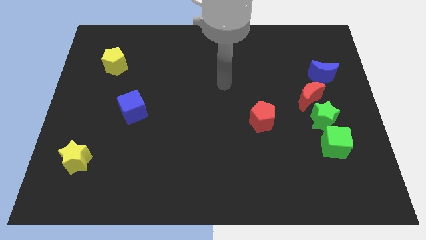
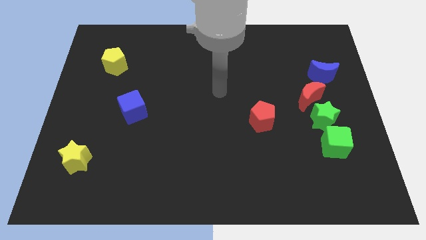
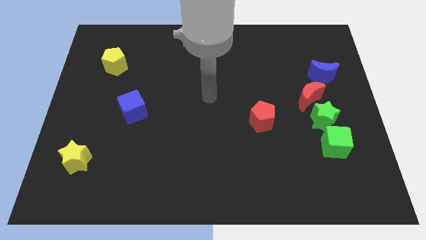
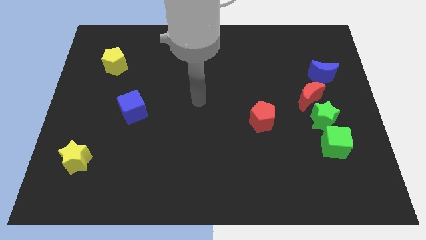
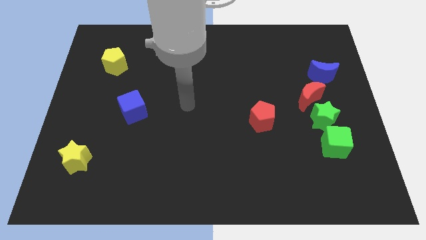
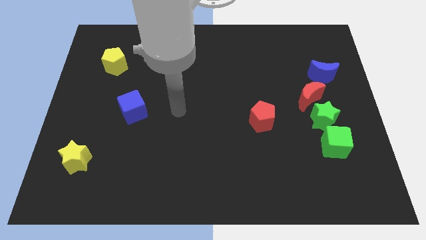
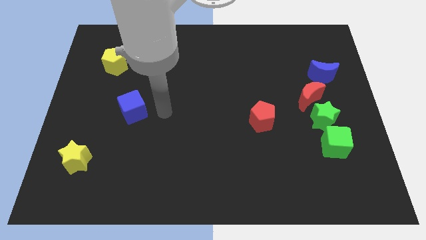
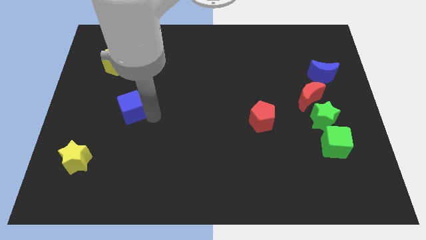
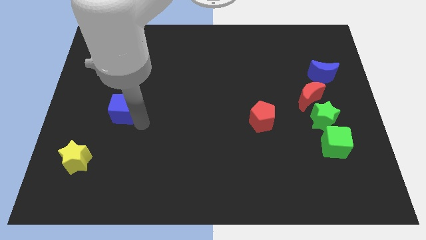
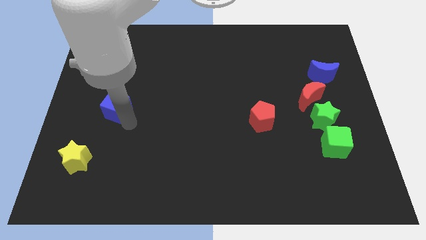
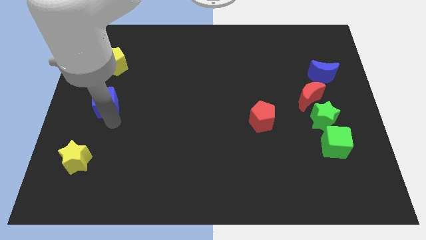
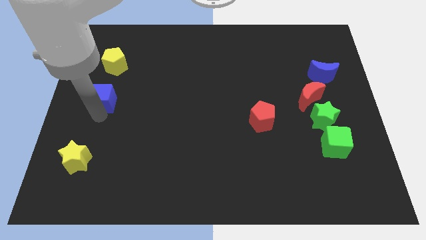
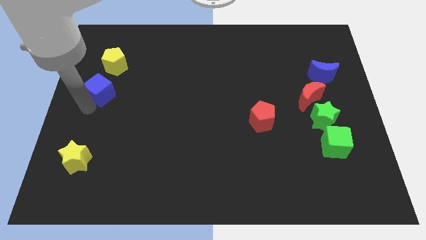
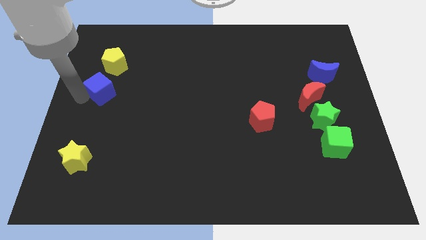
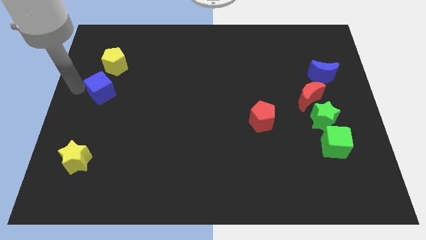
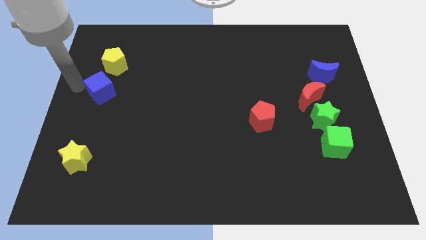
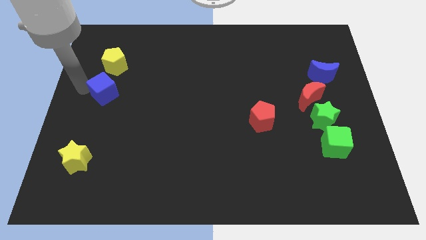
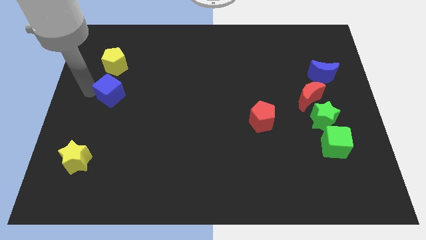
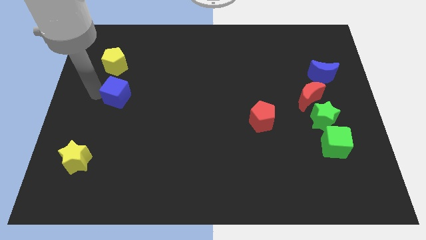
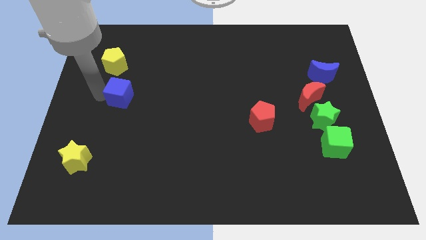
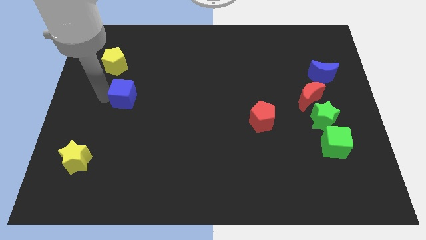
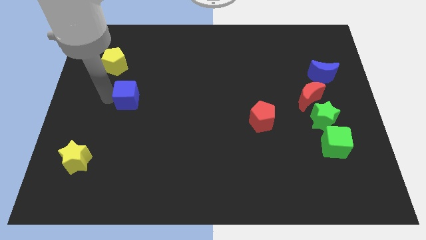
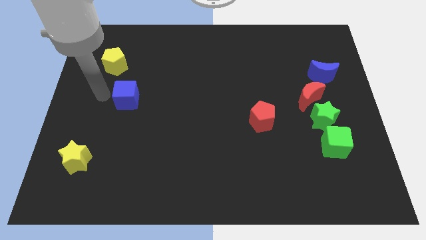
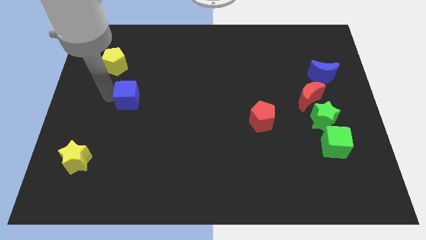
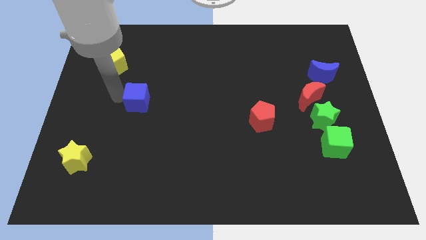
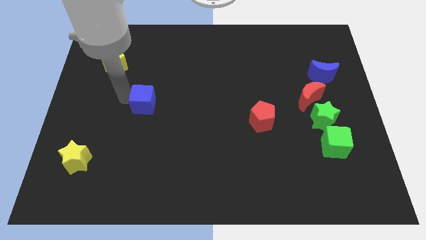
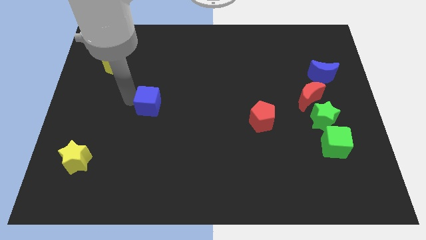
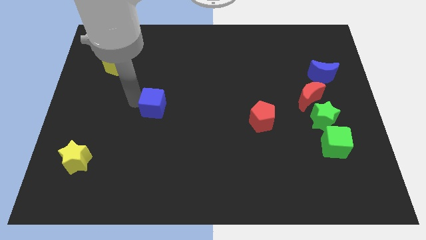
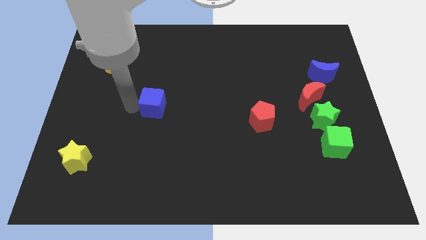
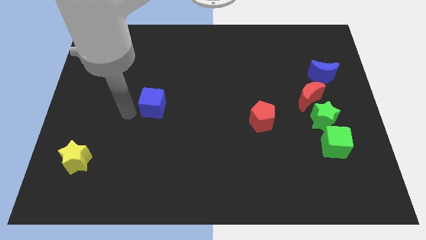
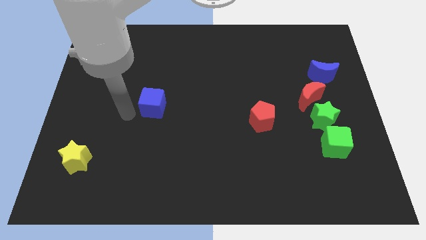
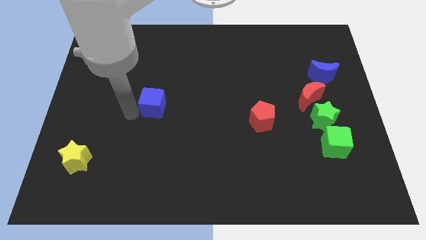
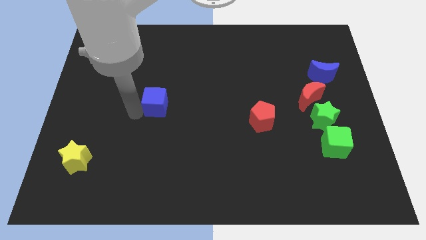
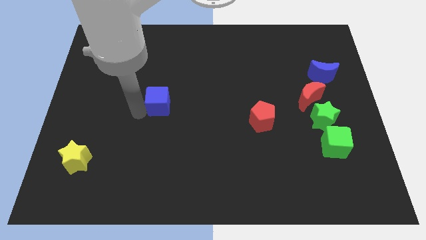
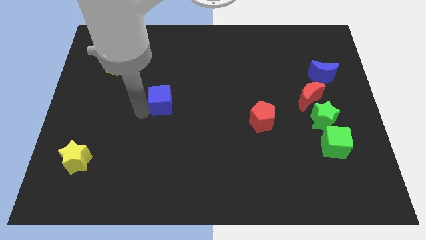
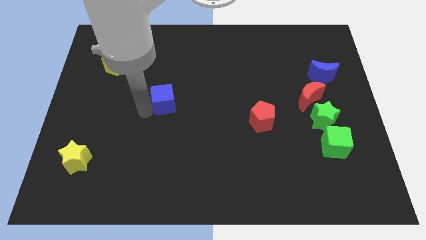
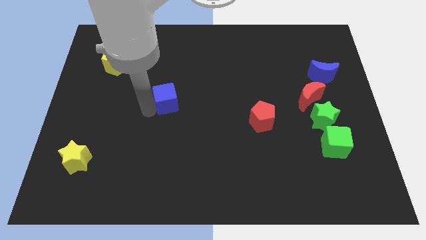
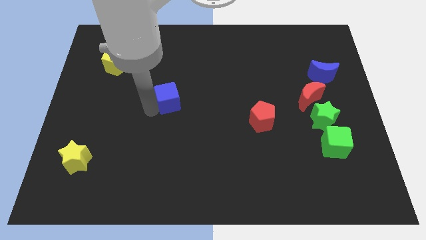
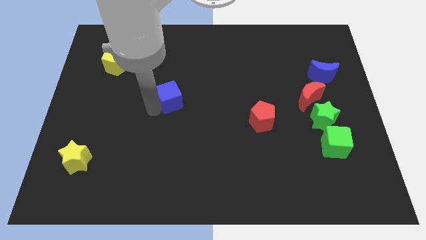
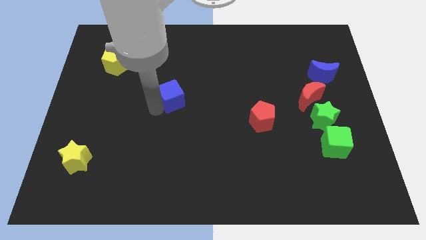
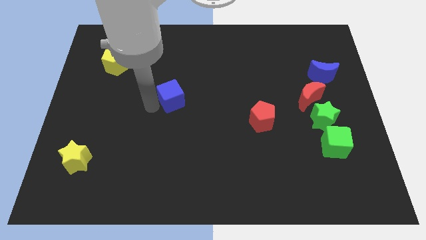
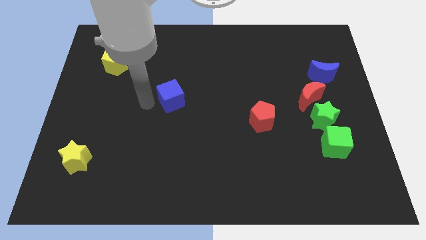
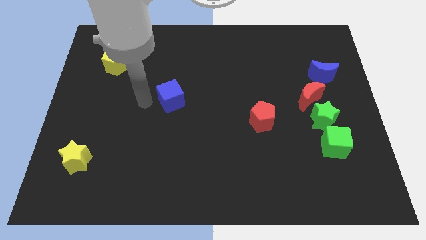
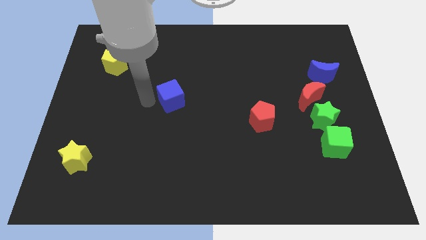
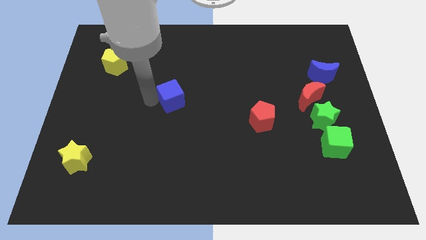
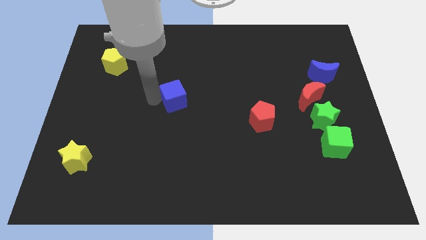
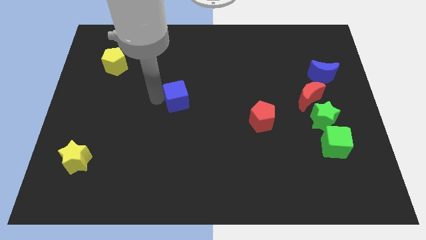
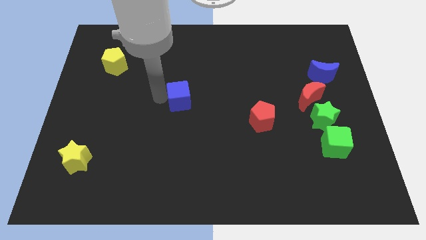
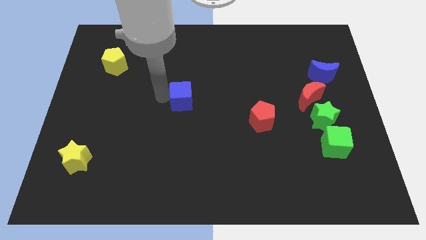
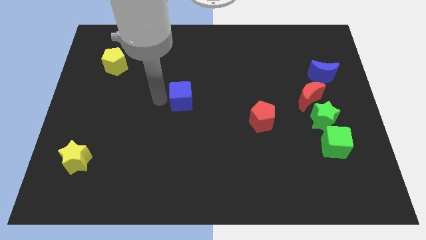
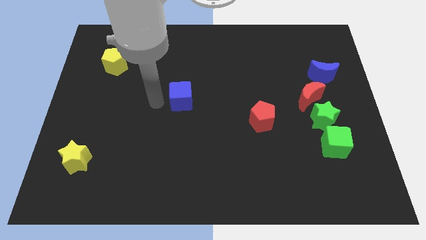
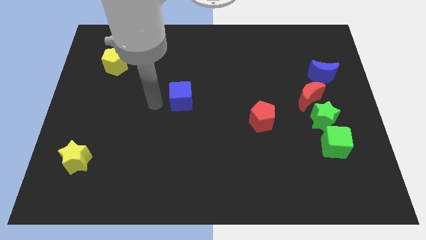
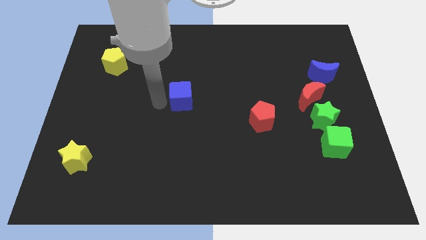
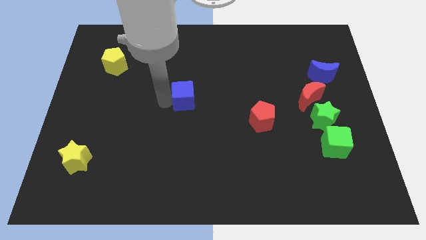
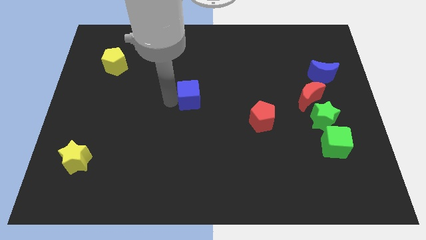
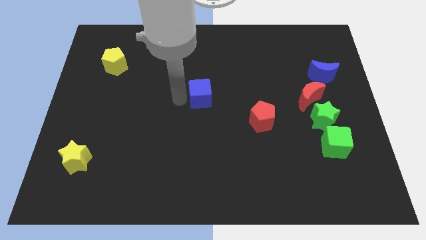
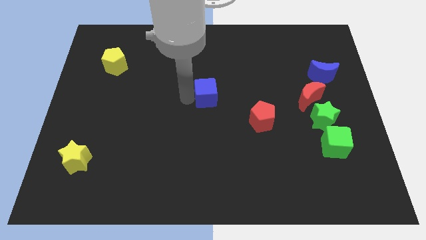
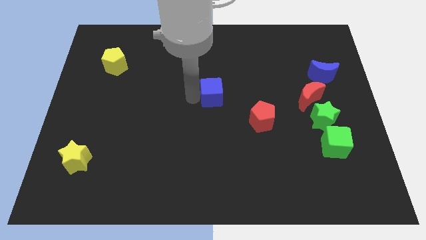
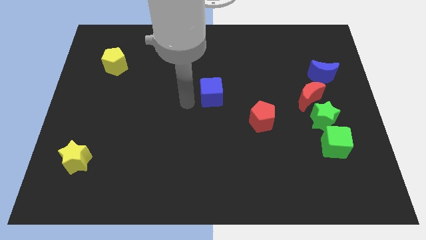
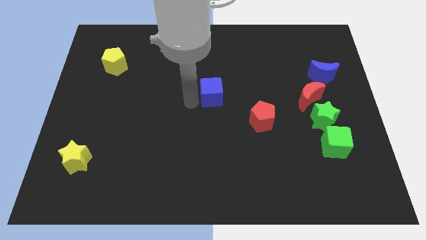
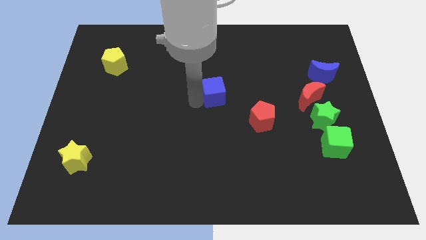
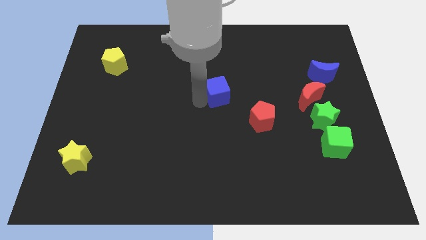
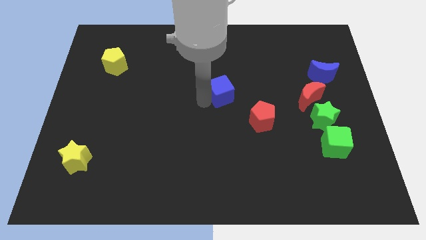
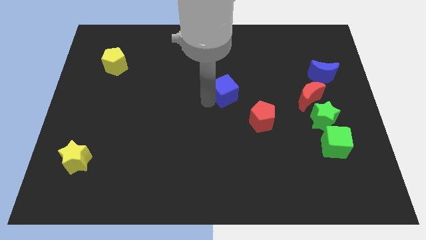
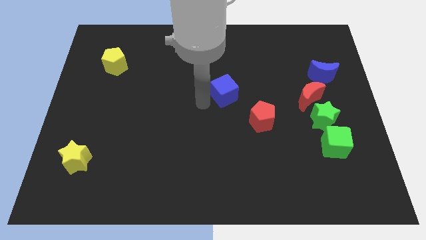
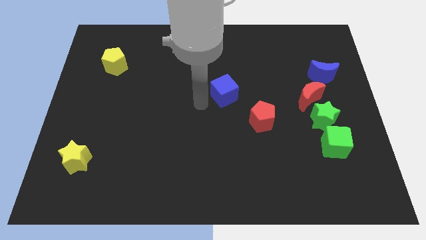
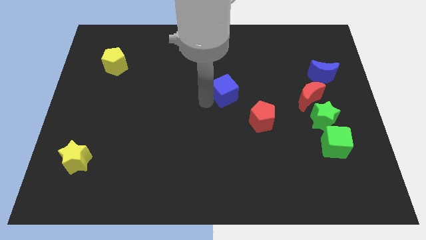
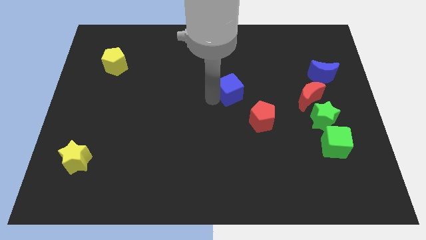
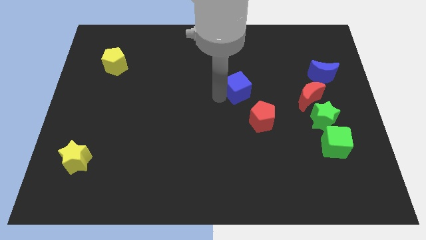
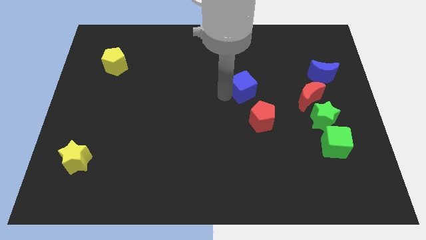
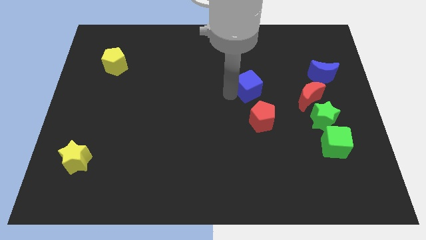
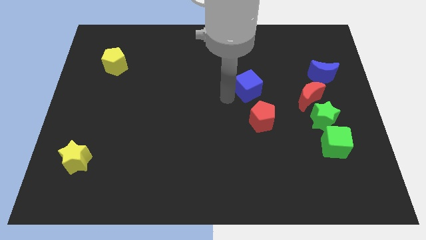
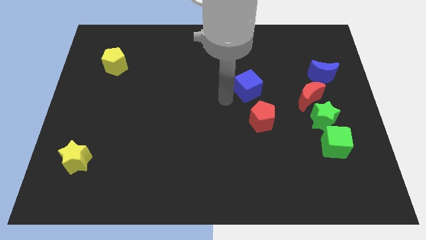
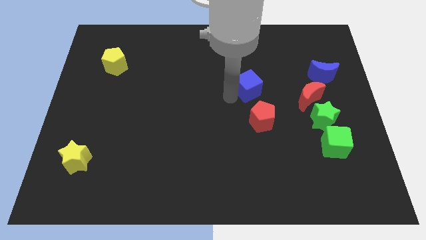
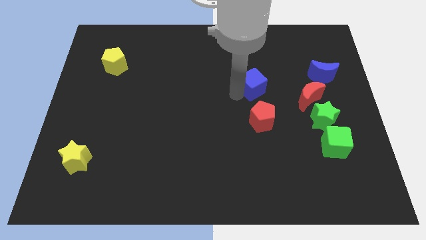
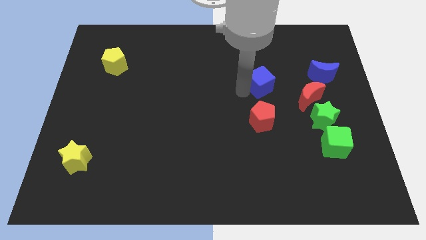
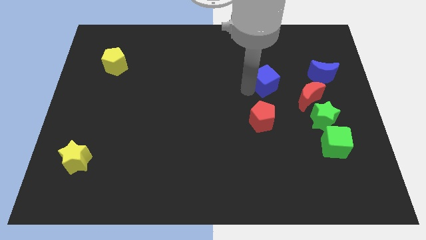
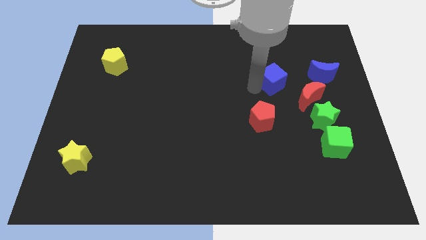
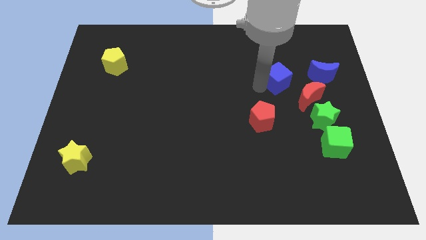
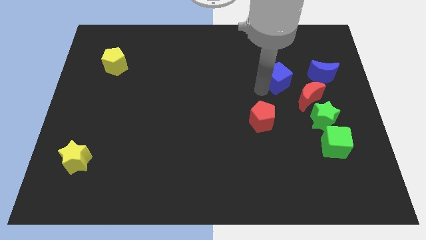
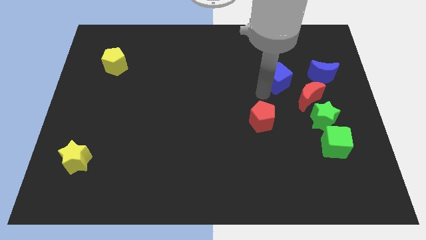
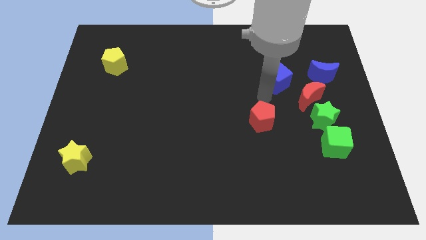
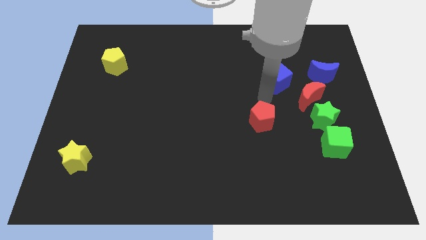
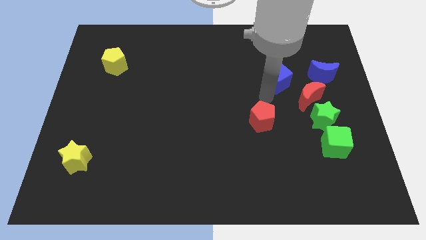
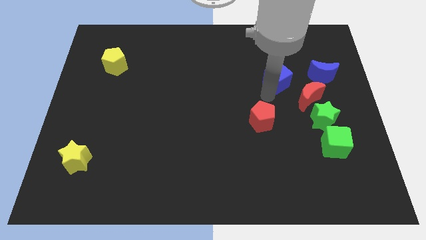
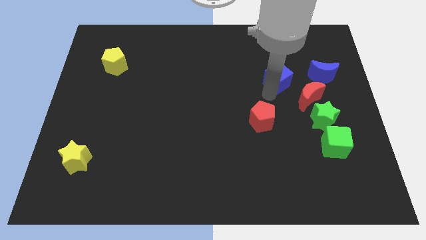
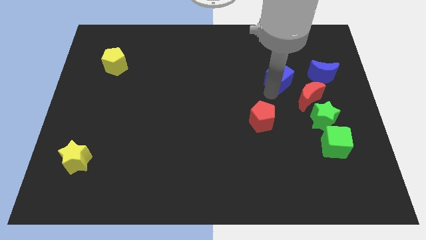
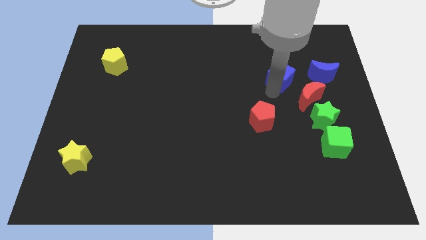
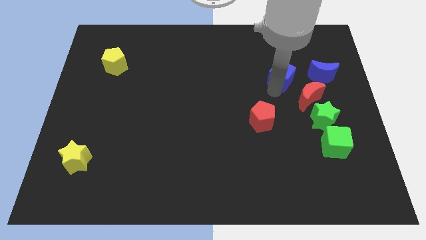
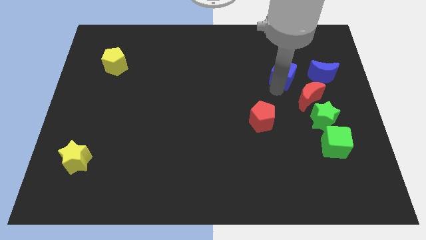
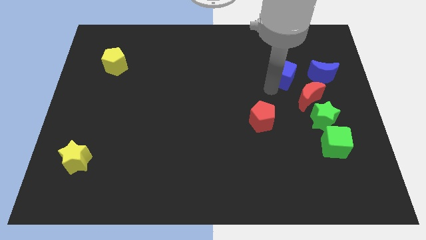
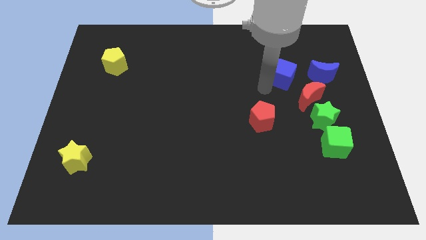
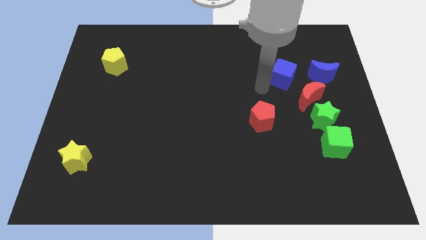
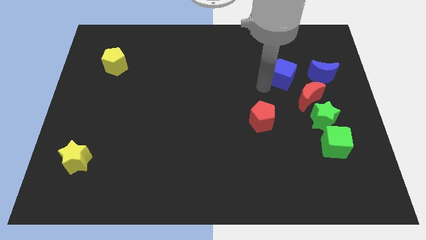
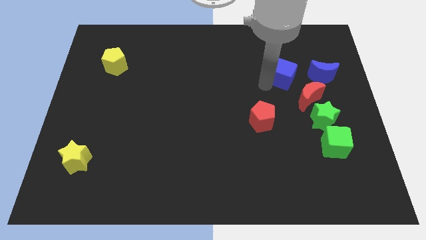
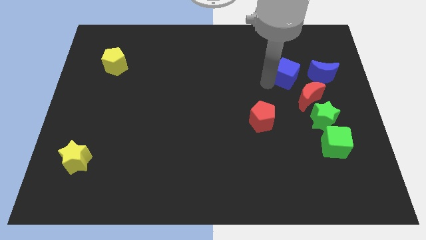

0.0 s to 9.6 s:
put the blue cube to the top of the red moon
